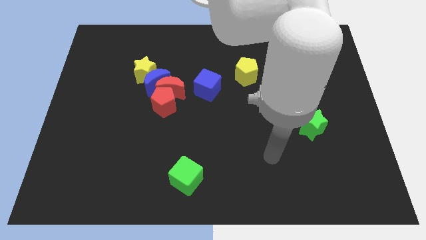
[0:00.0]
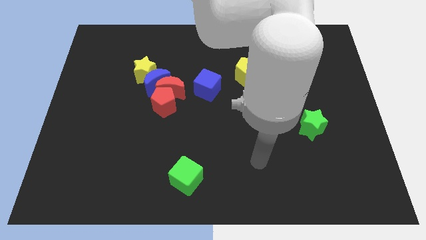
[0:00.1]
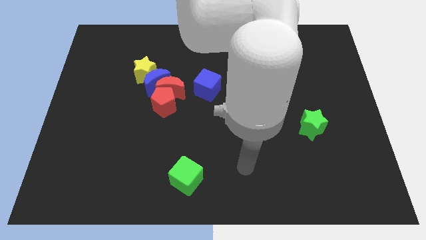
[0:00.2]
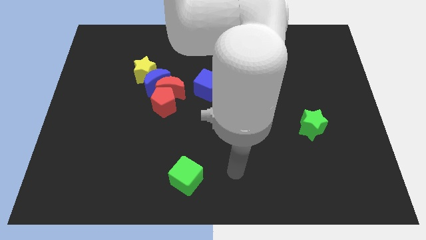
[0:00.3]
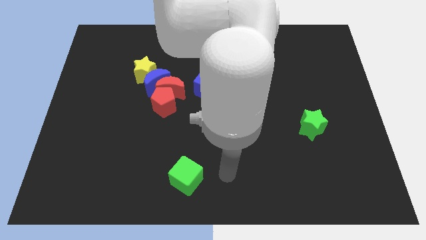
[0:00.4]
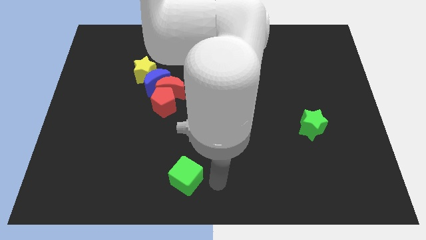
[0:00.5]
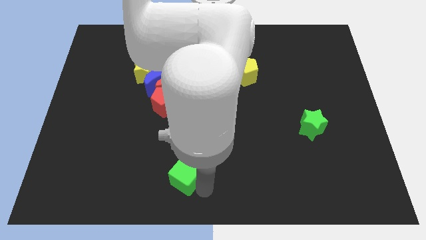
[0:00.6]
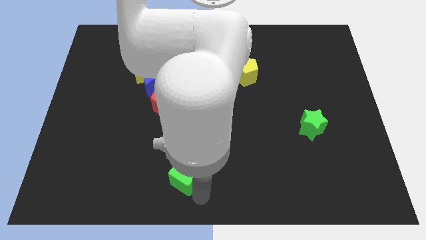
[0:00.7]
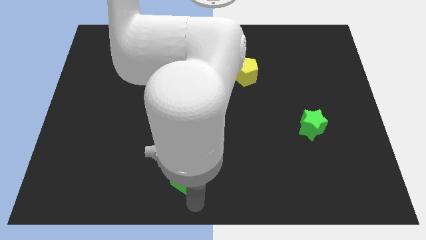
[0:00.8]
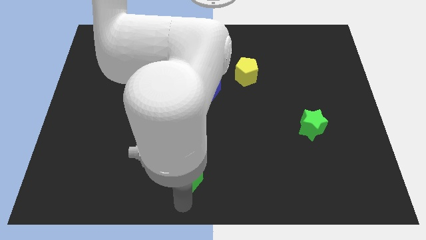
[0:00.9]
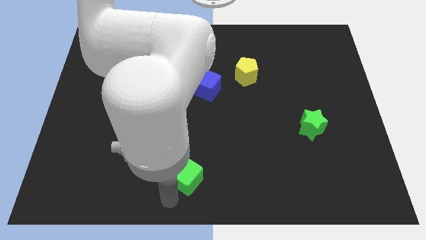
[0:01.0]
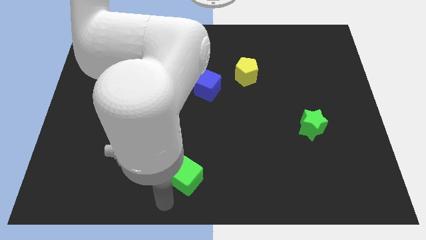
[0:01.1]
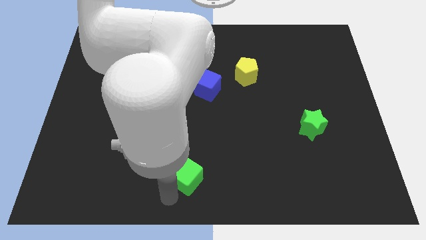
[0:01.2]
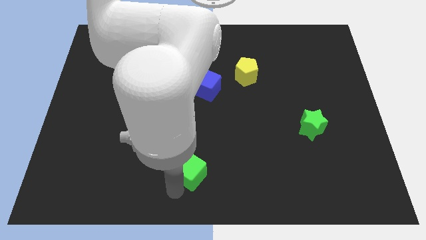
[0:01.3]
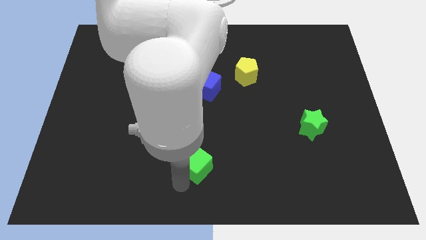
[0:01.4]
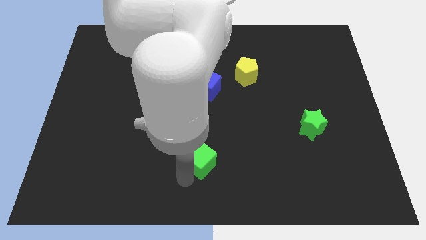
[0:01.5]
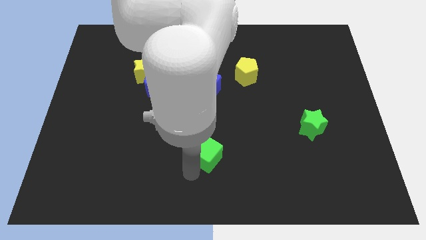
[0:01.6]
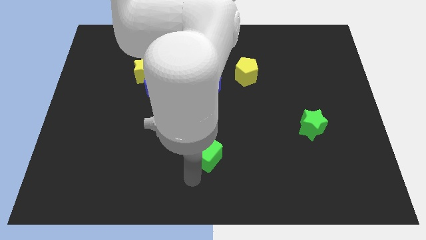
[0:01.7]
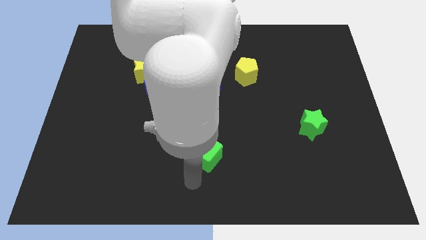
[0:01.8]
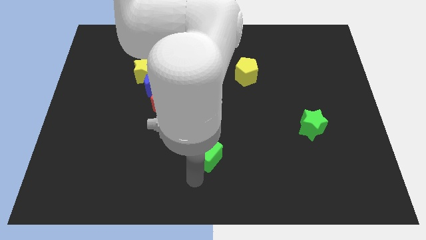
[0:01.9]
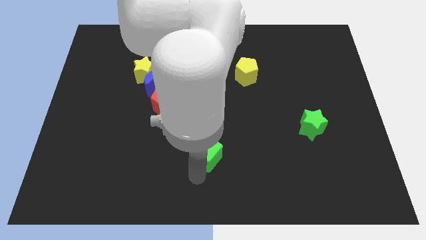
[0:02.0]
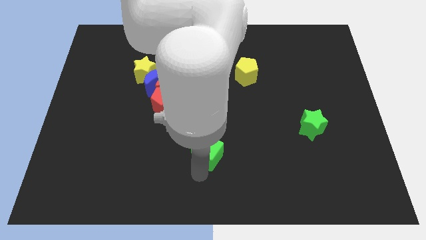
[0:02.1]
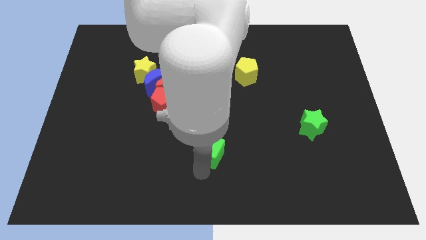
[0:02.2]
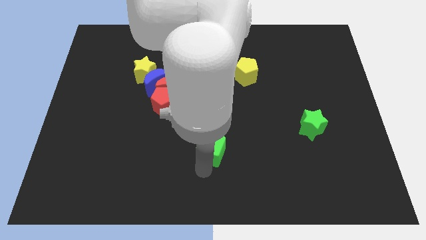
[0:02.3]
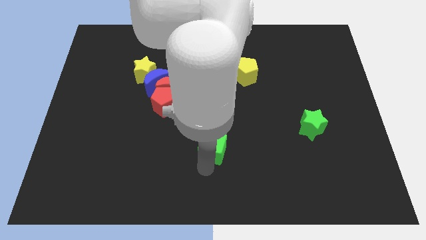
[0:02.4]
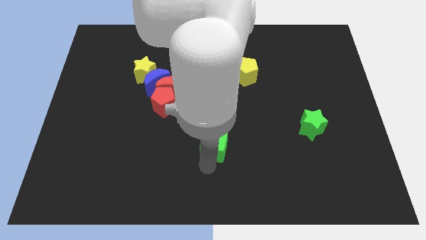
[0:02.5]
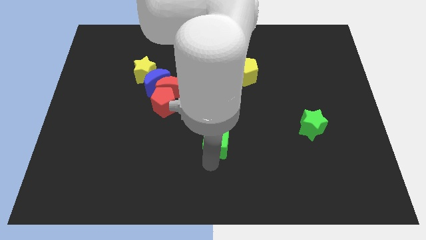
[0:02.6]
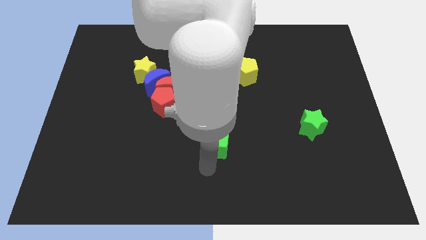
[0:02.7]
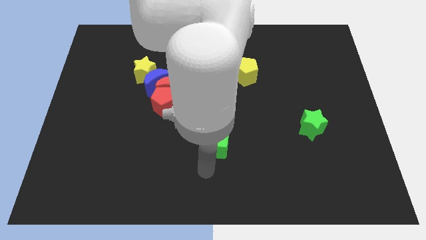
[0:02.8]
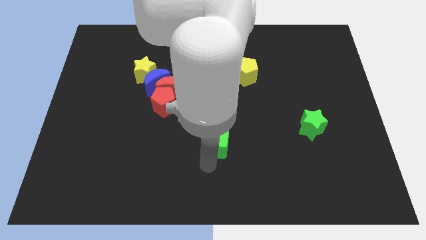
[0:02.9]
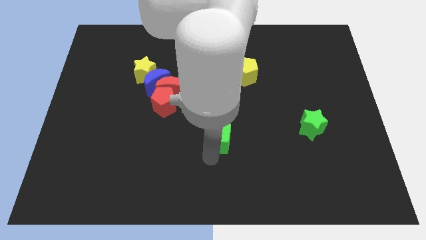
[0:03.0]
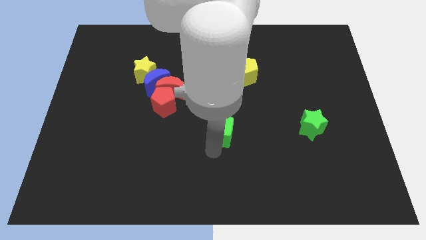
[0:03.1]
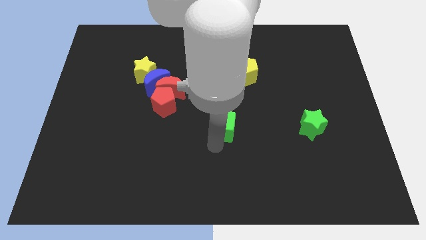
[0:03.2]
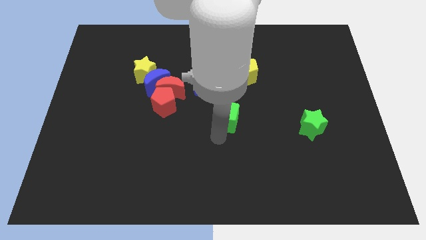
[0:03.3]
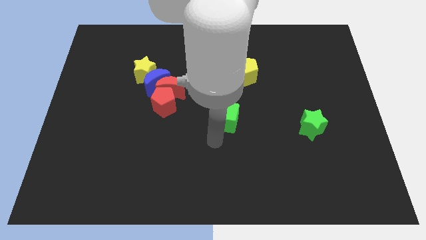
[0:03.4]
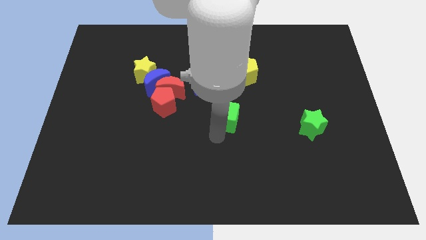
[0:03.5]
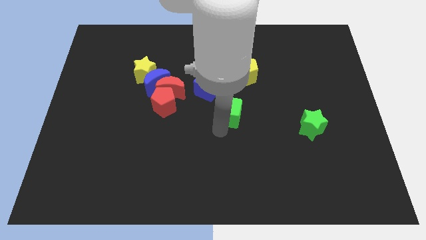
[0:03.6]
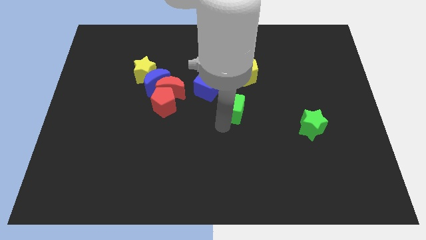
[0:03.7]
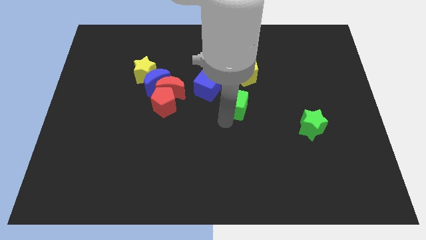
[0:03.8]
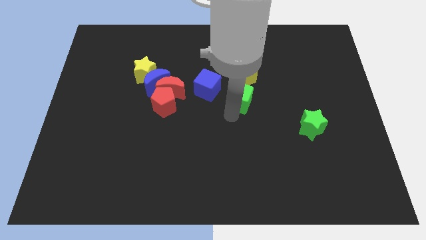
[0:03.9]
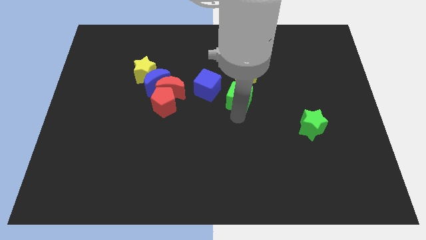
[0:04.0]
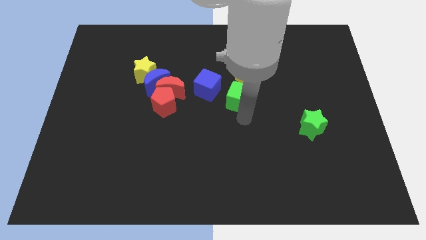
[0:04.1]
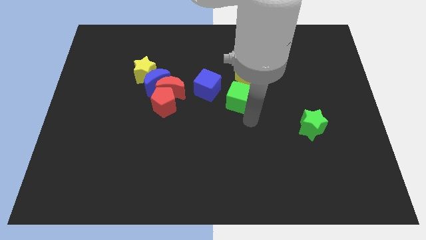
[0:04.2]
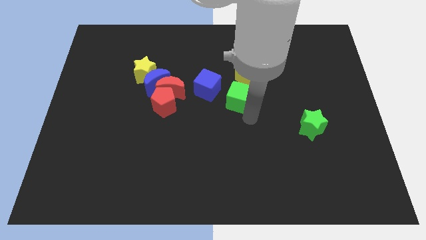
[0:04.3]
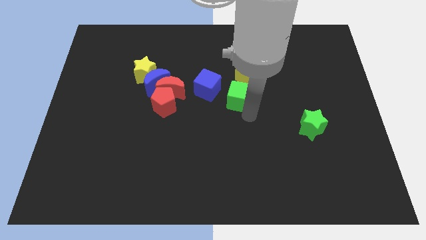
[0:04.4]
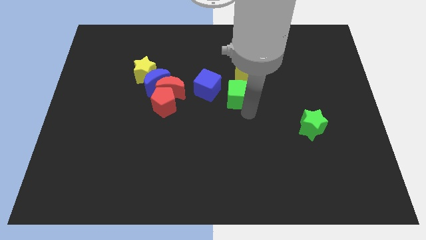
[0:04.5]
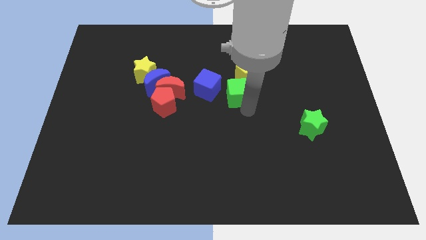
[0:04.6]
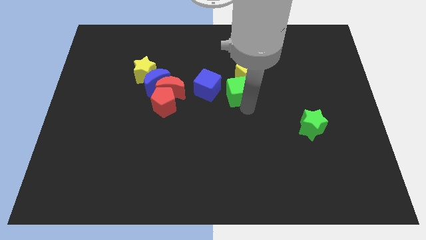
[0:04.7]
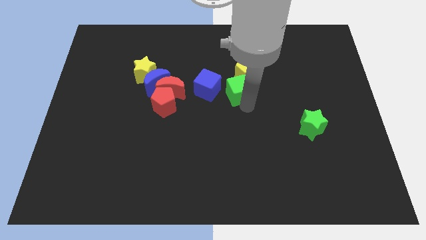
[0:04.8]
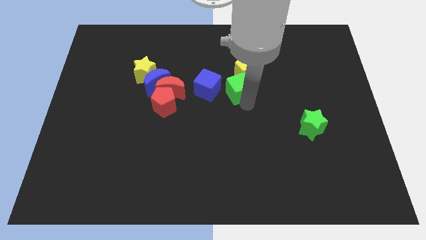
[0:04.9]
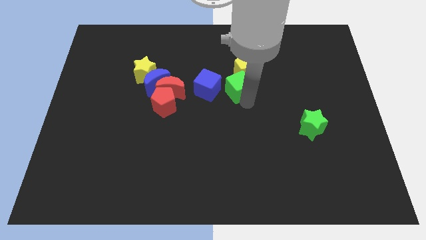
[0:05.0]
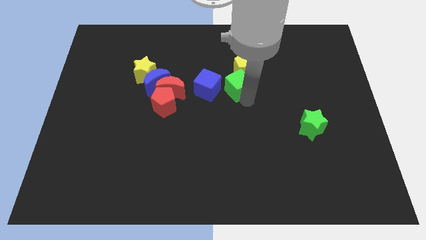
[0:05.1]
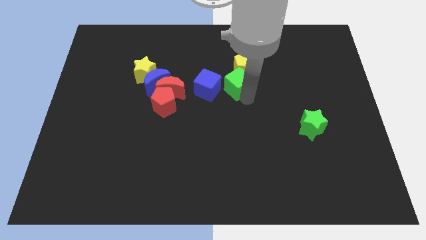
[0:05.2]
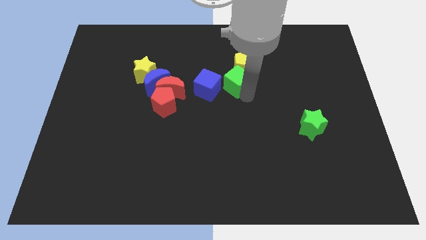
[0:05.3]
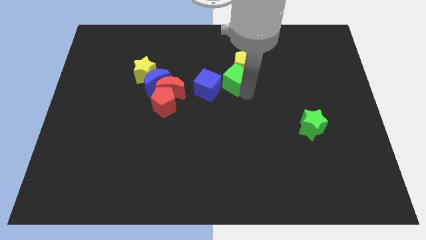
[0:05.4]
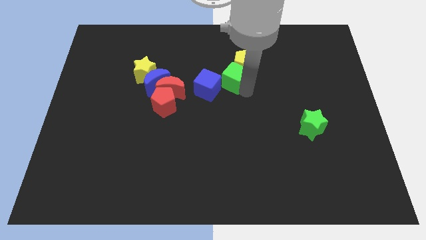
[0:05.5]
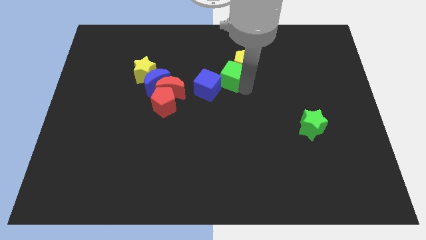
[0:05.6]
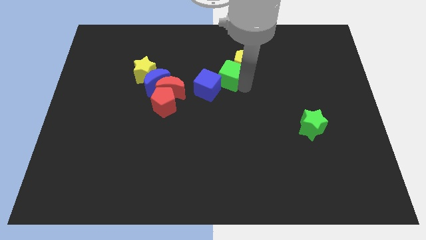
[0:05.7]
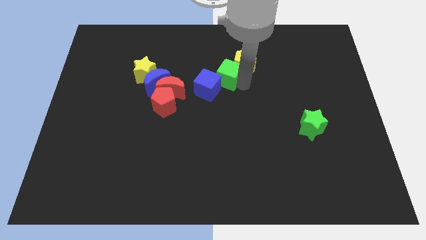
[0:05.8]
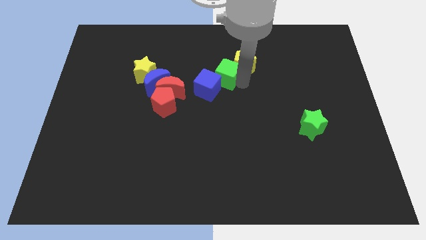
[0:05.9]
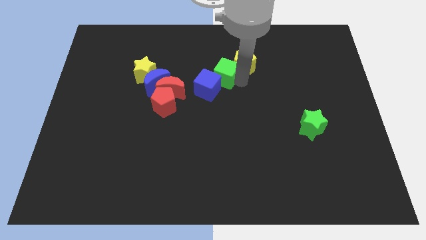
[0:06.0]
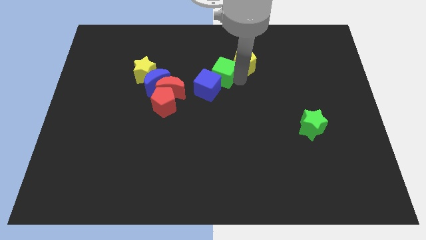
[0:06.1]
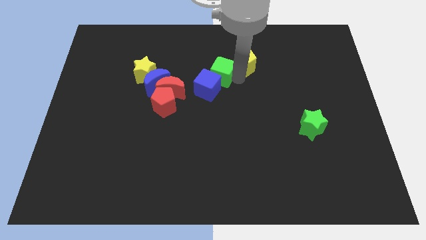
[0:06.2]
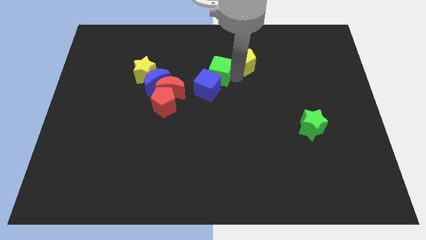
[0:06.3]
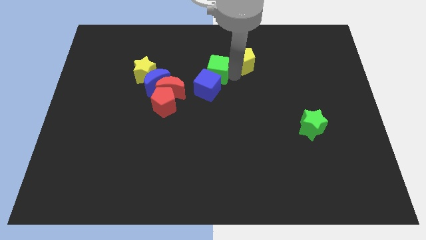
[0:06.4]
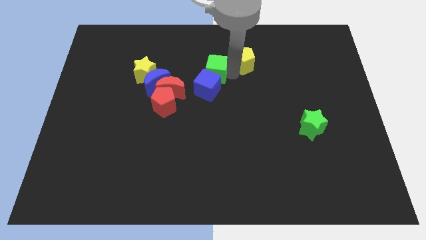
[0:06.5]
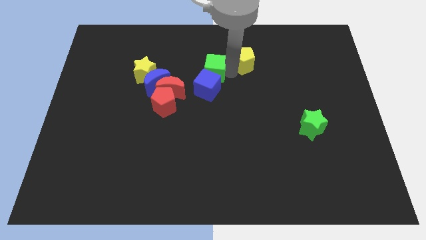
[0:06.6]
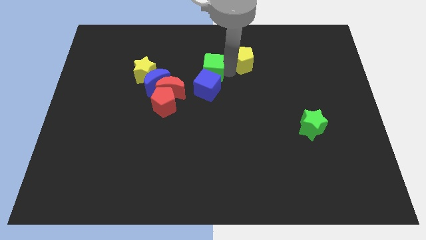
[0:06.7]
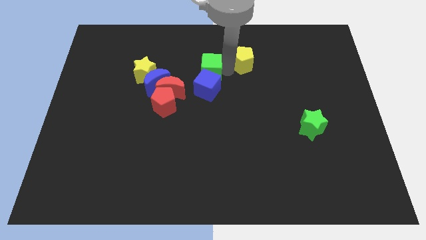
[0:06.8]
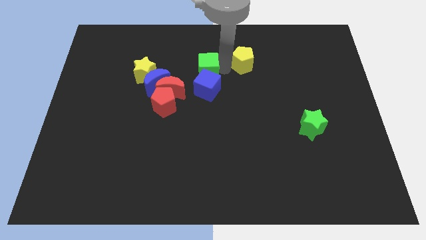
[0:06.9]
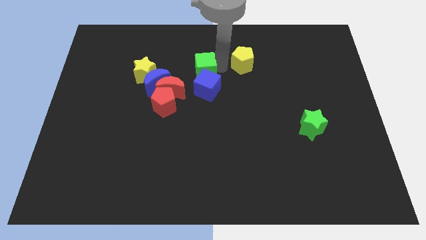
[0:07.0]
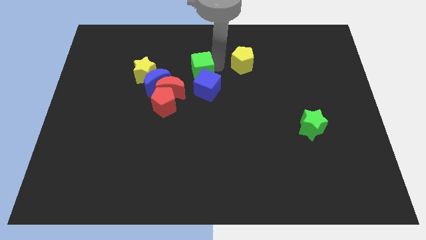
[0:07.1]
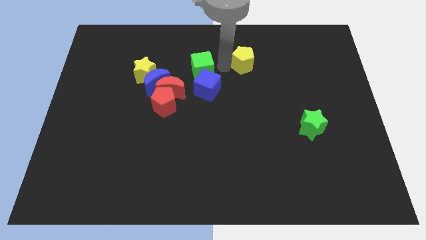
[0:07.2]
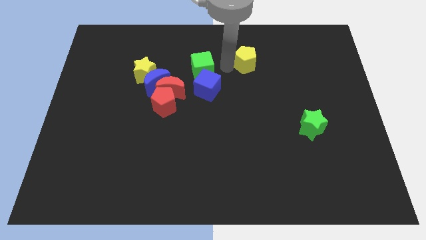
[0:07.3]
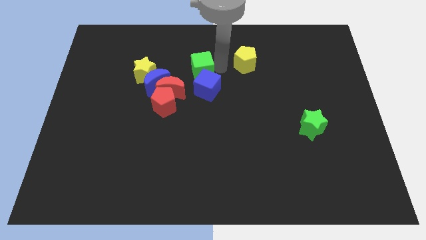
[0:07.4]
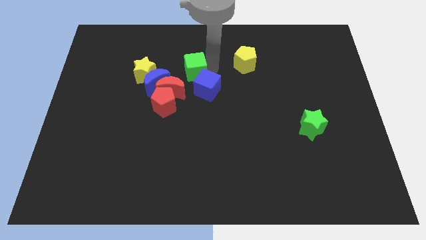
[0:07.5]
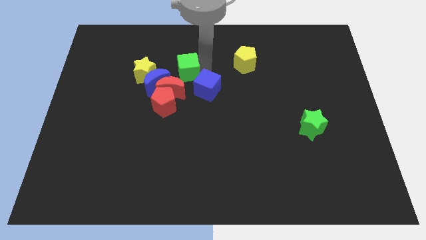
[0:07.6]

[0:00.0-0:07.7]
slide the green cube above the red pentagon
